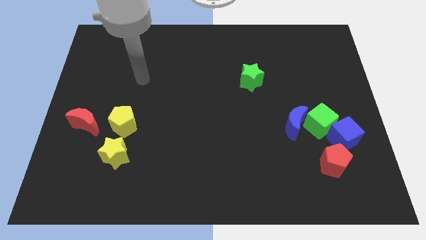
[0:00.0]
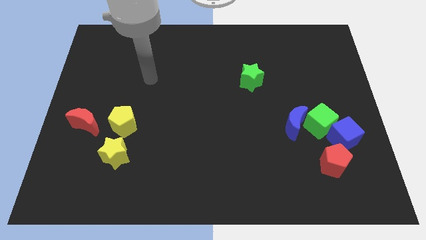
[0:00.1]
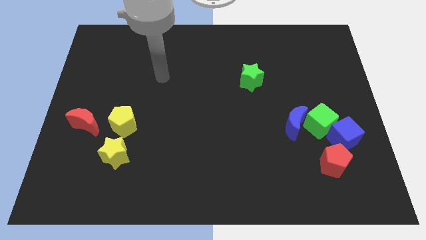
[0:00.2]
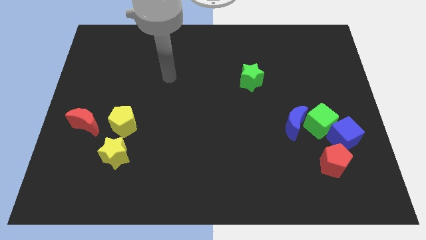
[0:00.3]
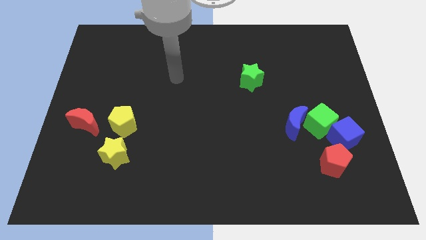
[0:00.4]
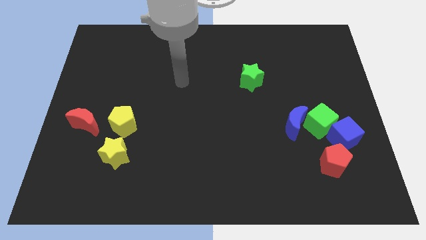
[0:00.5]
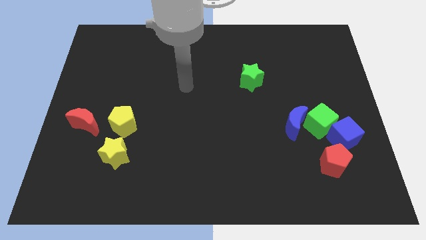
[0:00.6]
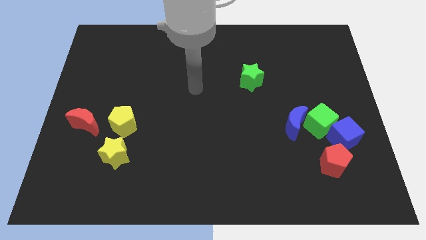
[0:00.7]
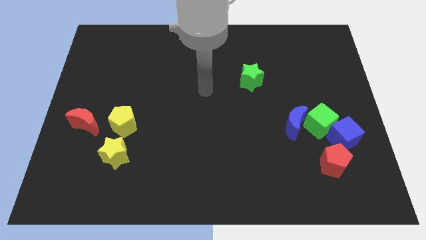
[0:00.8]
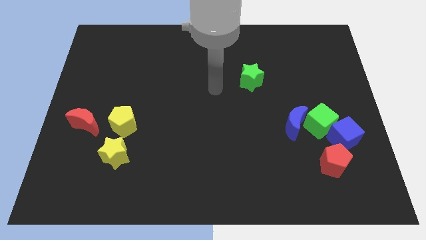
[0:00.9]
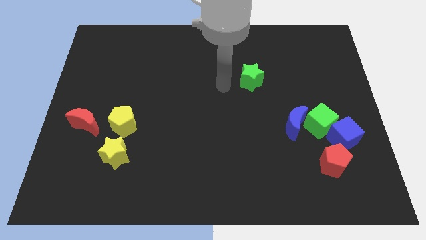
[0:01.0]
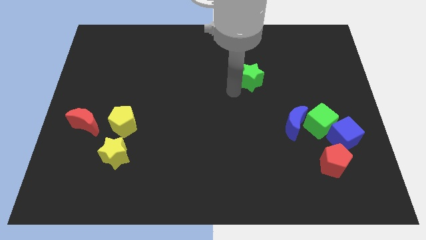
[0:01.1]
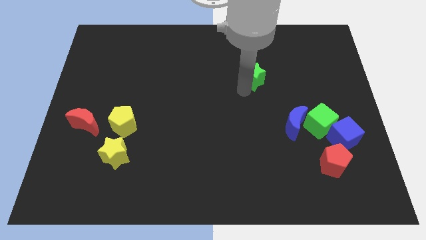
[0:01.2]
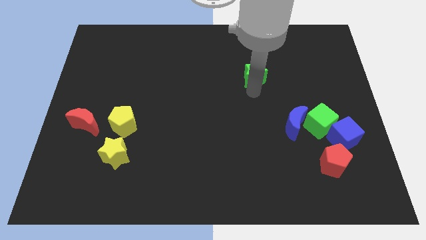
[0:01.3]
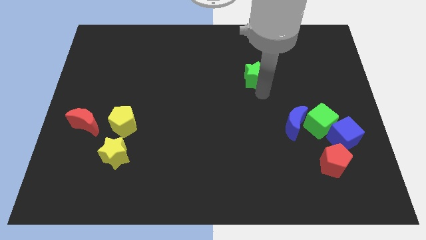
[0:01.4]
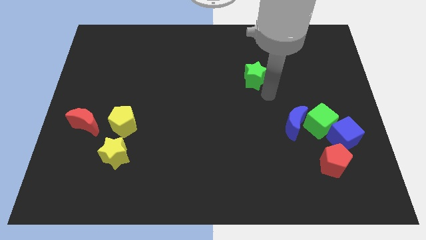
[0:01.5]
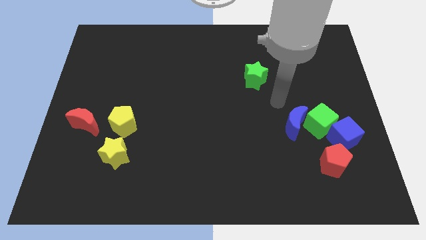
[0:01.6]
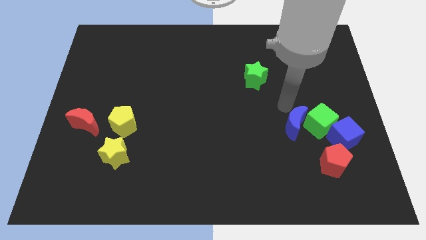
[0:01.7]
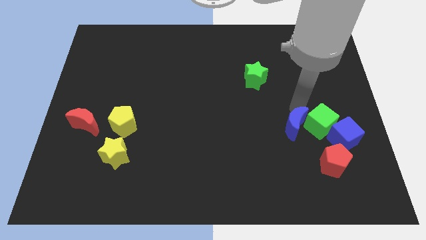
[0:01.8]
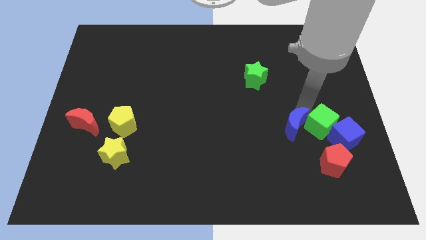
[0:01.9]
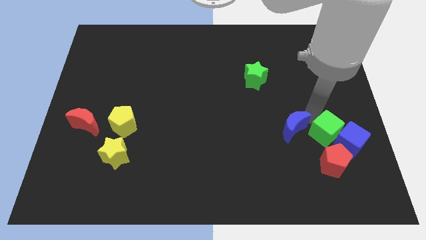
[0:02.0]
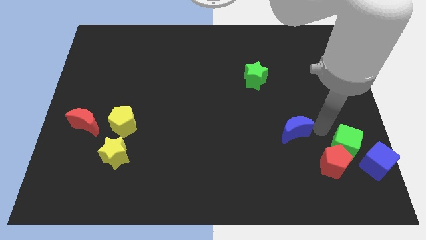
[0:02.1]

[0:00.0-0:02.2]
move the blue moon away from the green cube

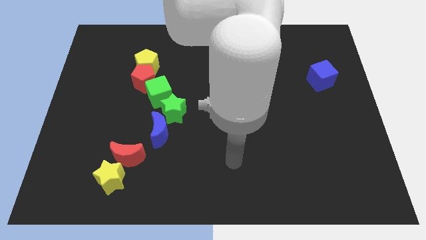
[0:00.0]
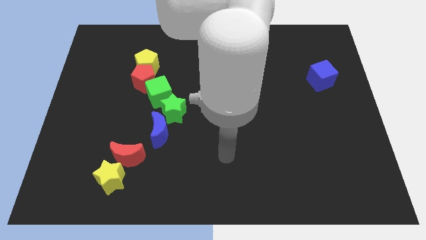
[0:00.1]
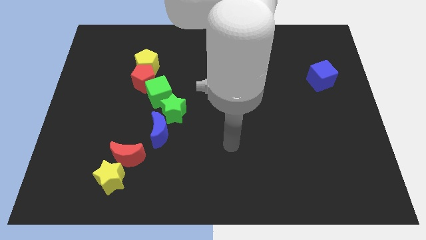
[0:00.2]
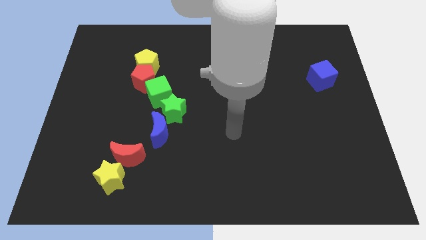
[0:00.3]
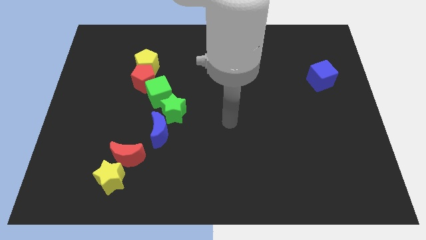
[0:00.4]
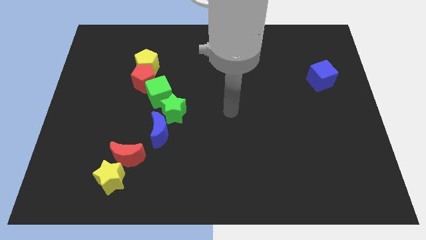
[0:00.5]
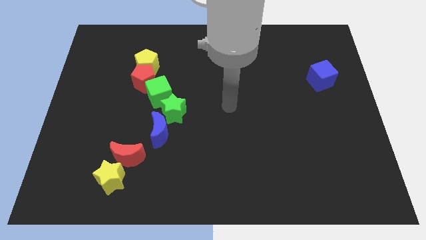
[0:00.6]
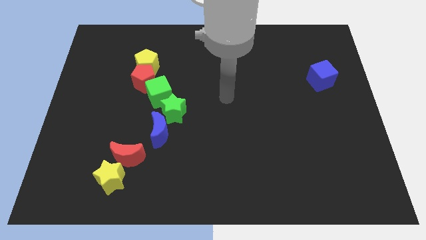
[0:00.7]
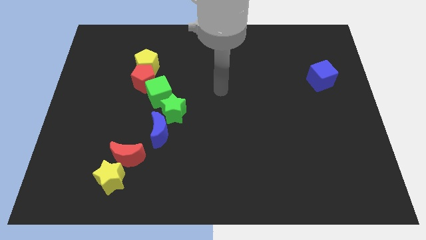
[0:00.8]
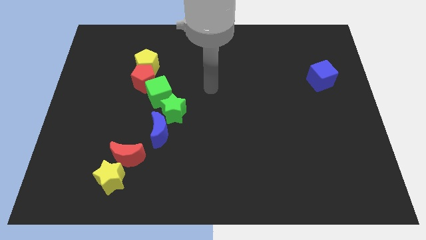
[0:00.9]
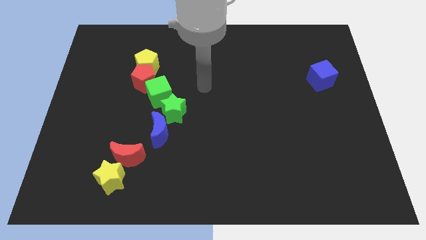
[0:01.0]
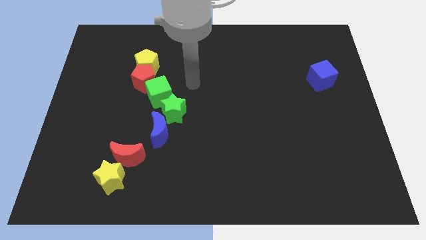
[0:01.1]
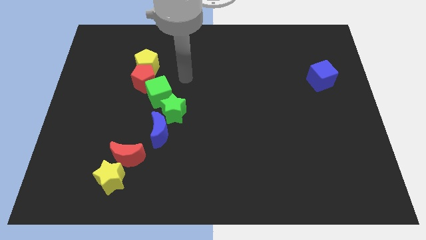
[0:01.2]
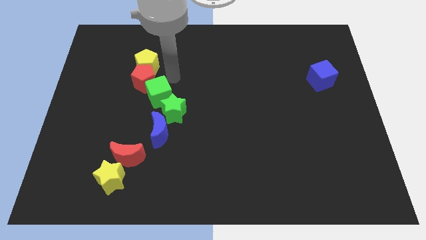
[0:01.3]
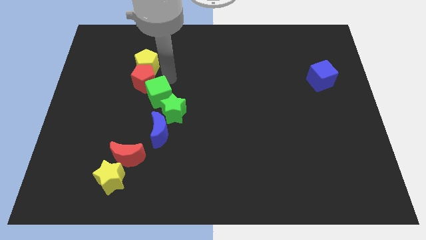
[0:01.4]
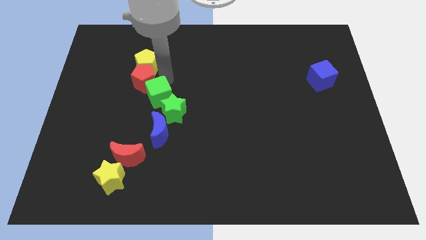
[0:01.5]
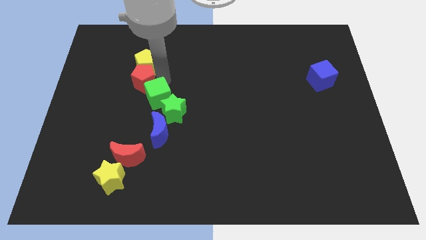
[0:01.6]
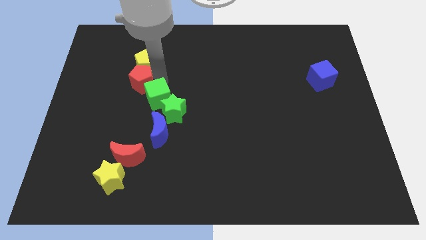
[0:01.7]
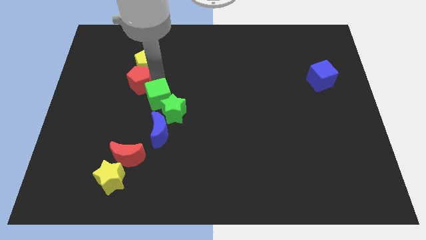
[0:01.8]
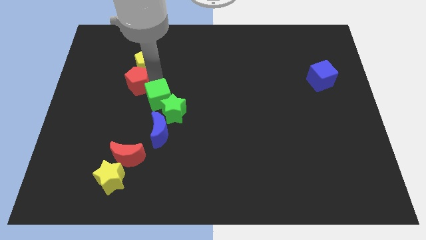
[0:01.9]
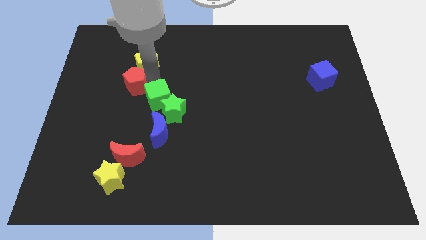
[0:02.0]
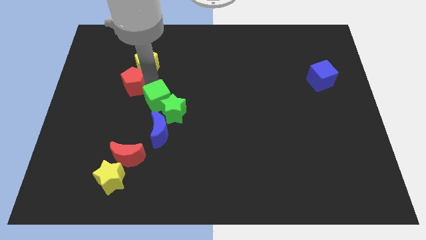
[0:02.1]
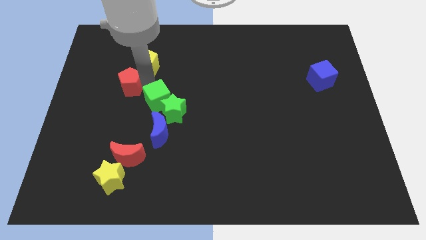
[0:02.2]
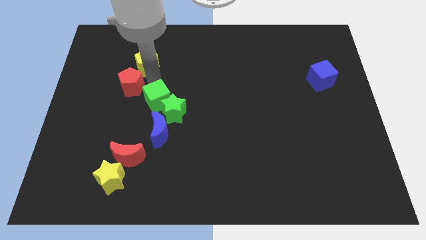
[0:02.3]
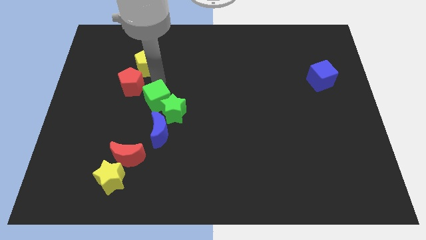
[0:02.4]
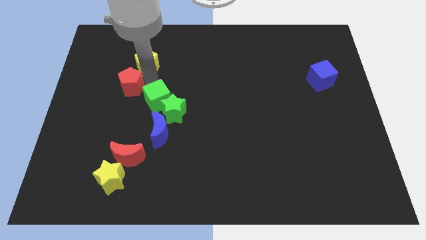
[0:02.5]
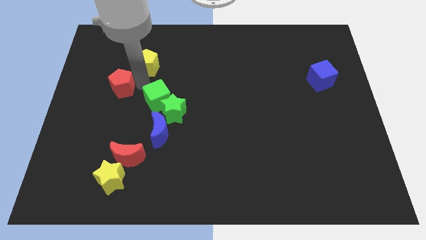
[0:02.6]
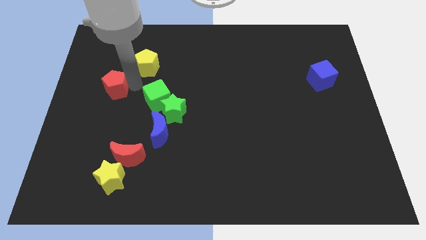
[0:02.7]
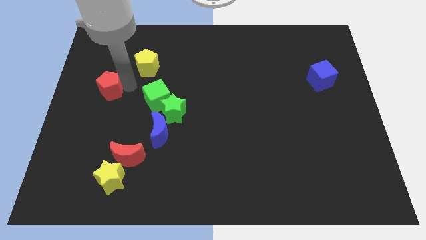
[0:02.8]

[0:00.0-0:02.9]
separate the red pentagon from the yellow pentagon and green cube

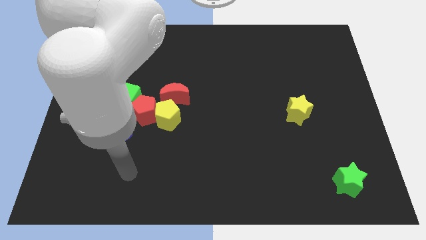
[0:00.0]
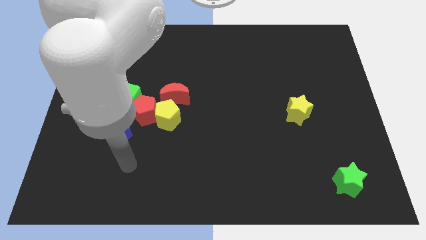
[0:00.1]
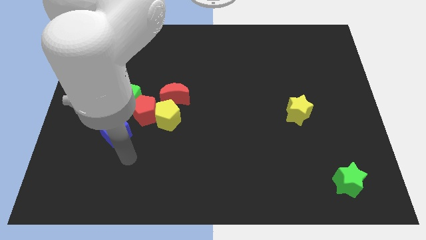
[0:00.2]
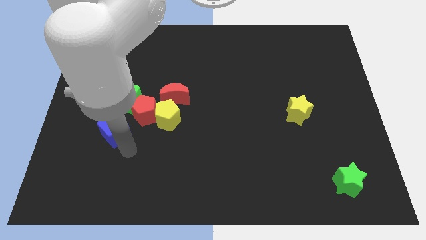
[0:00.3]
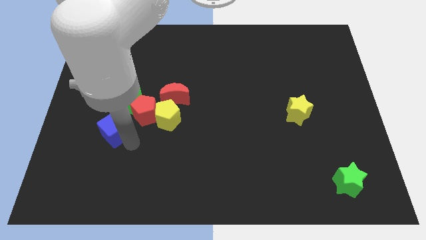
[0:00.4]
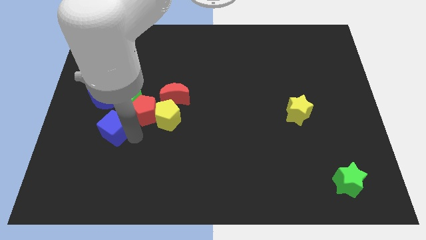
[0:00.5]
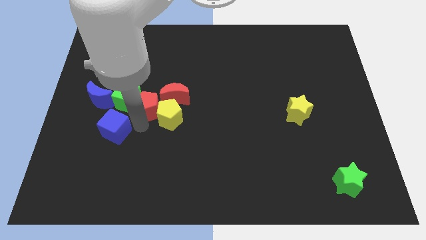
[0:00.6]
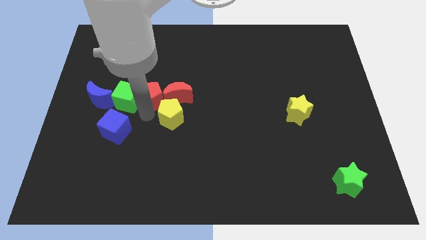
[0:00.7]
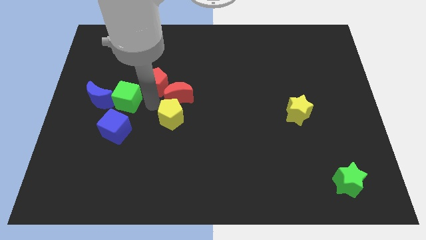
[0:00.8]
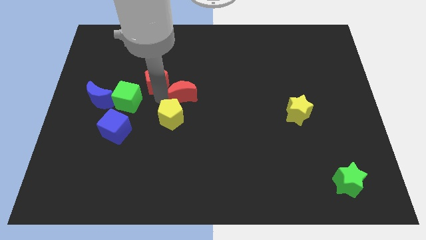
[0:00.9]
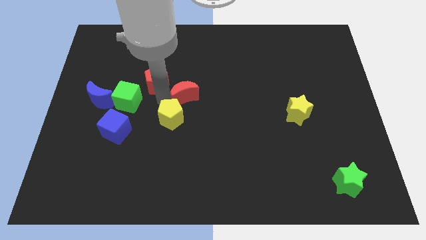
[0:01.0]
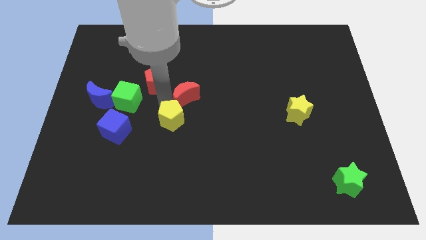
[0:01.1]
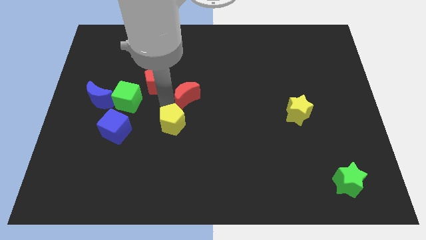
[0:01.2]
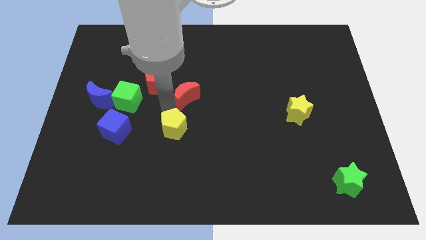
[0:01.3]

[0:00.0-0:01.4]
separate the yellow pentagon from the red pentagon and red moon

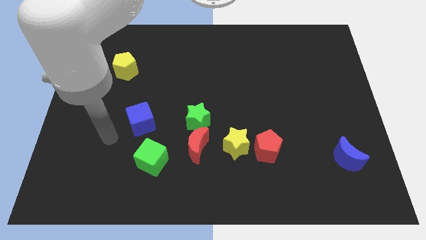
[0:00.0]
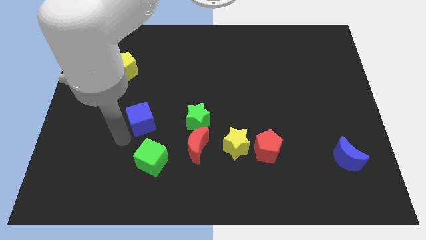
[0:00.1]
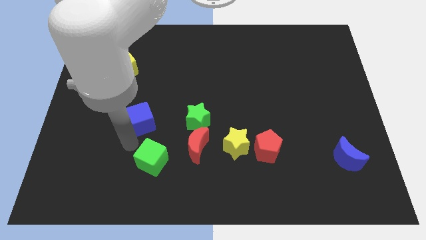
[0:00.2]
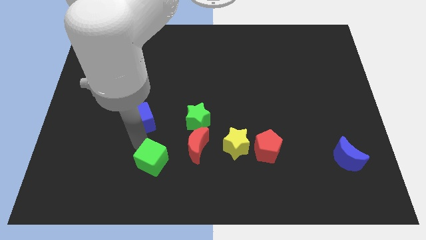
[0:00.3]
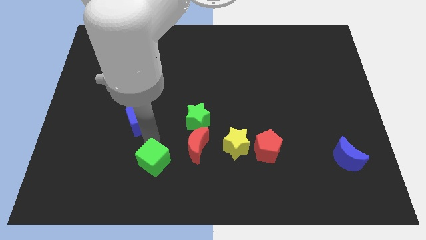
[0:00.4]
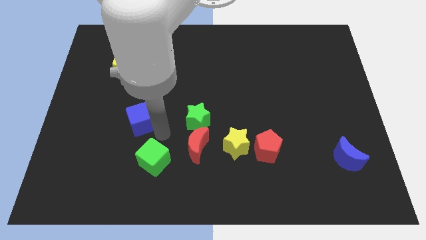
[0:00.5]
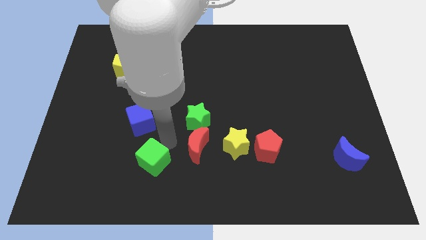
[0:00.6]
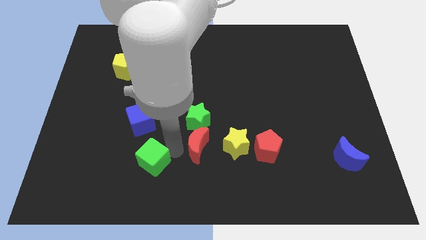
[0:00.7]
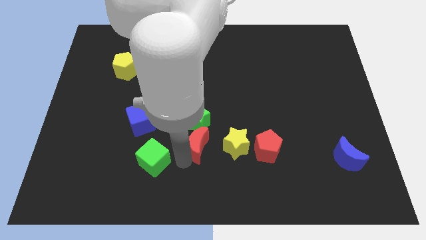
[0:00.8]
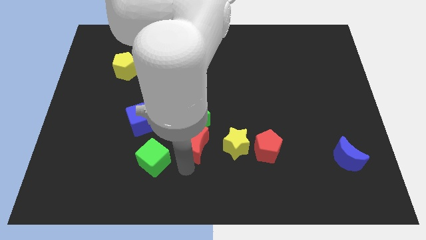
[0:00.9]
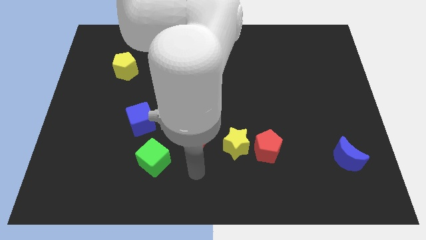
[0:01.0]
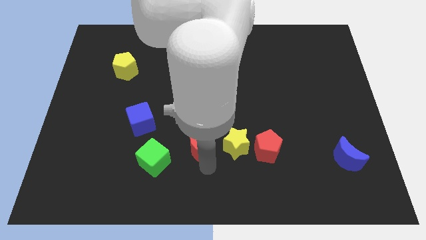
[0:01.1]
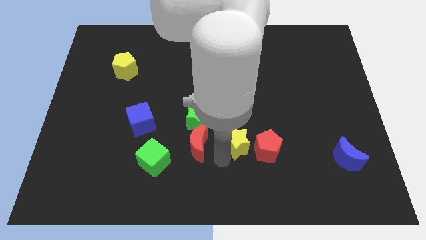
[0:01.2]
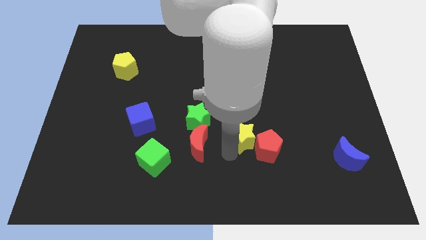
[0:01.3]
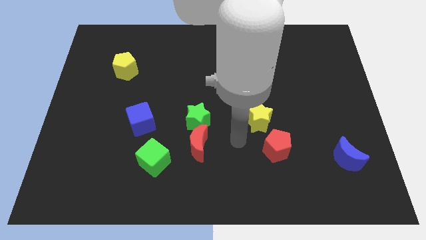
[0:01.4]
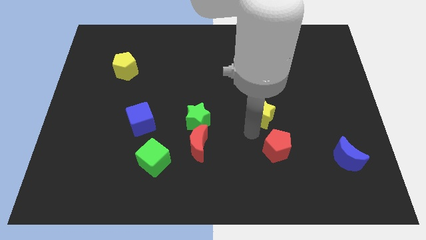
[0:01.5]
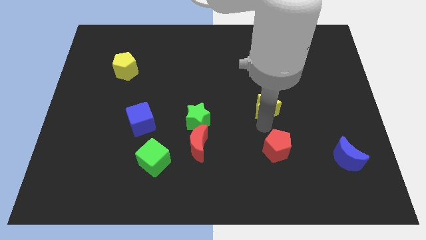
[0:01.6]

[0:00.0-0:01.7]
pull the red pentagon apart from the yellow star

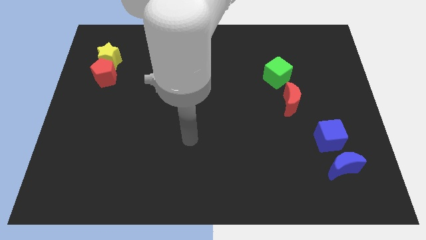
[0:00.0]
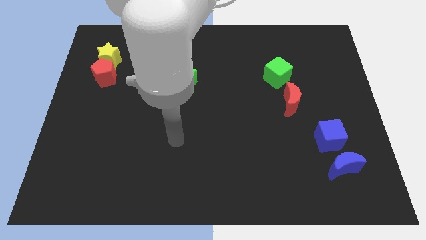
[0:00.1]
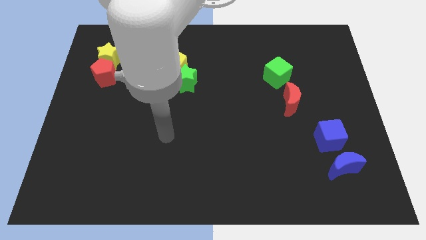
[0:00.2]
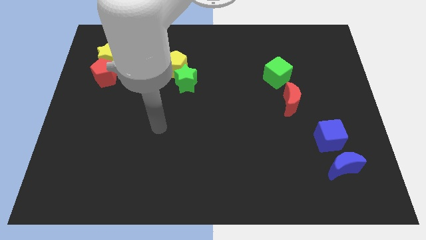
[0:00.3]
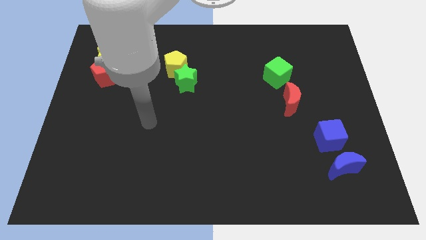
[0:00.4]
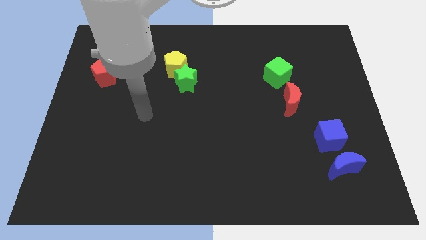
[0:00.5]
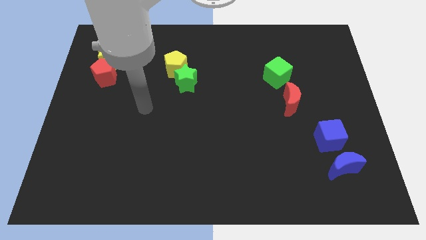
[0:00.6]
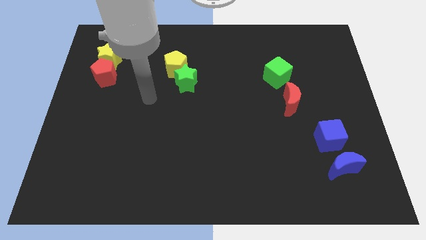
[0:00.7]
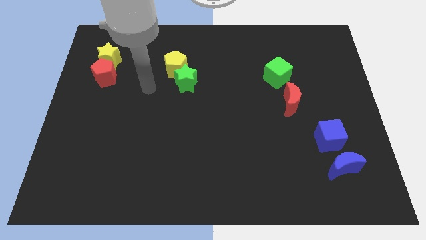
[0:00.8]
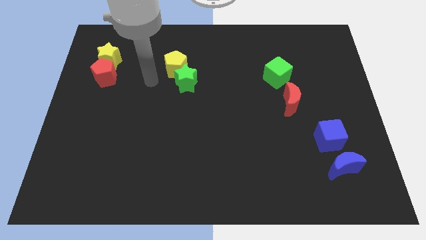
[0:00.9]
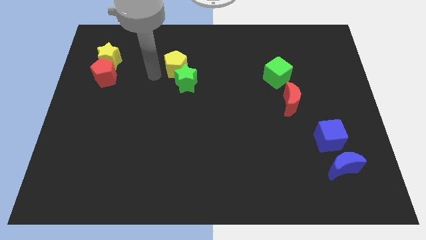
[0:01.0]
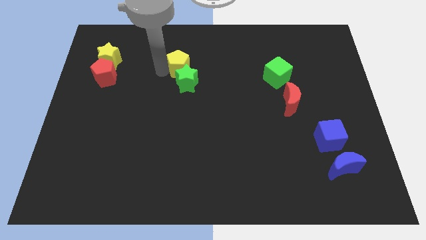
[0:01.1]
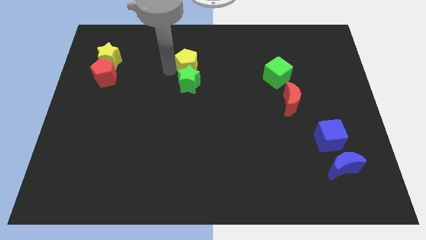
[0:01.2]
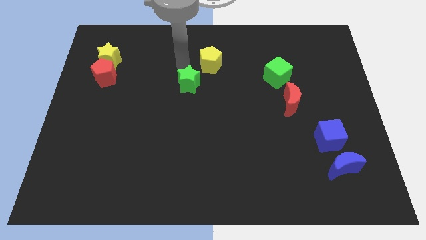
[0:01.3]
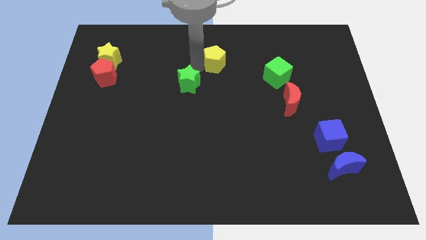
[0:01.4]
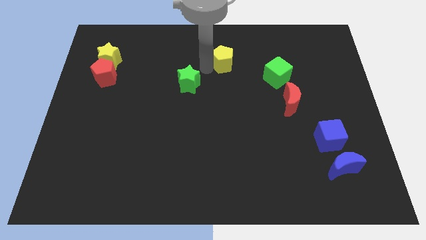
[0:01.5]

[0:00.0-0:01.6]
separate the green star from the yellow pentagon
